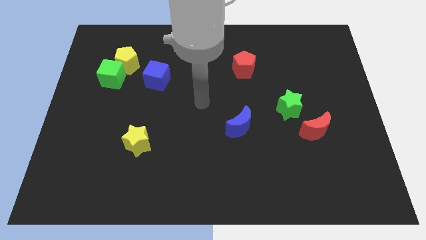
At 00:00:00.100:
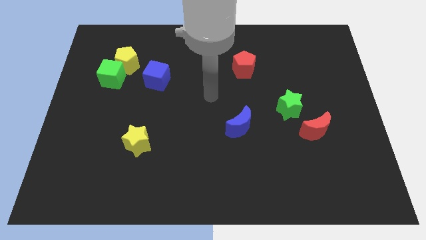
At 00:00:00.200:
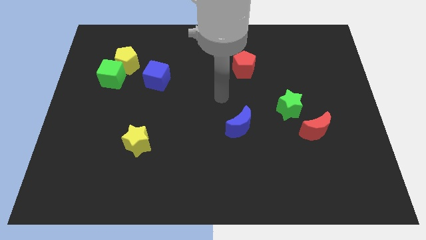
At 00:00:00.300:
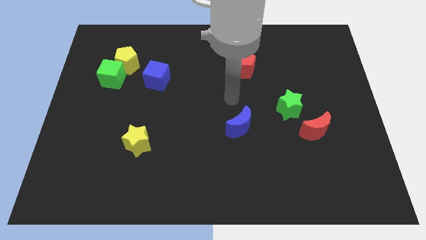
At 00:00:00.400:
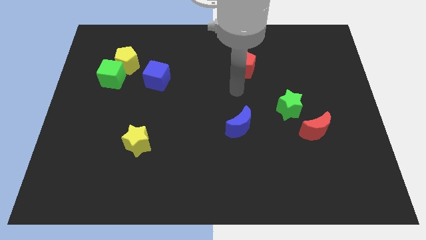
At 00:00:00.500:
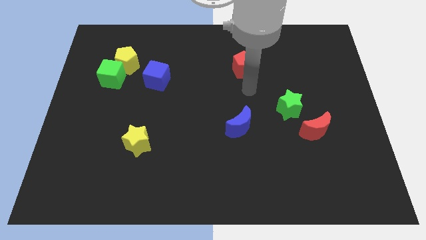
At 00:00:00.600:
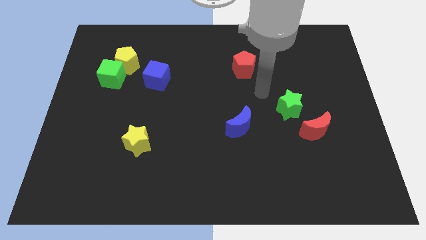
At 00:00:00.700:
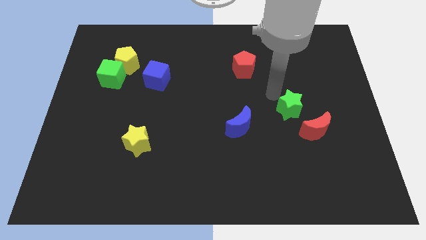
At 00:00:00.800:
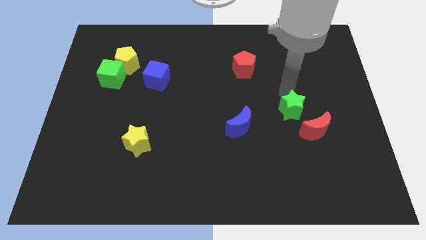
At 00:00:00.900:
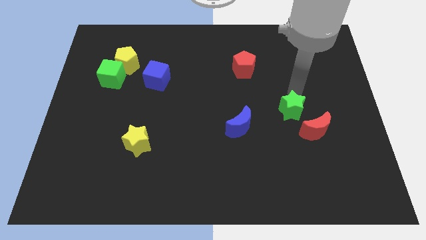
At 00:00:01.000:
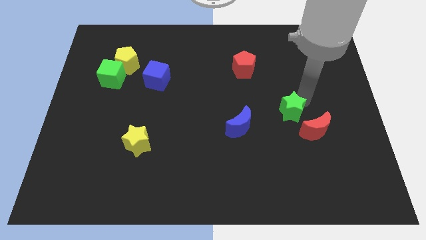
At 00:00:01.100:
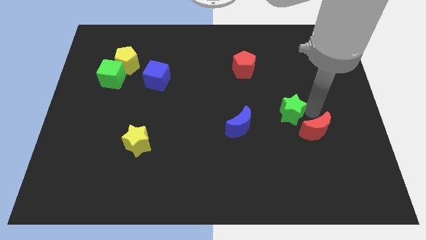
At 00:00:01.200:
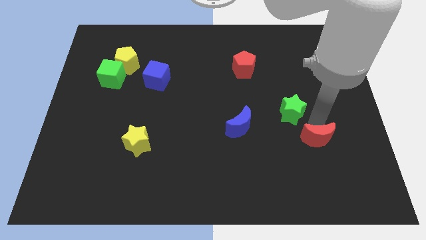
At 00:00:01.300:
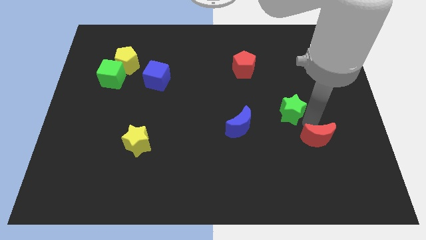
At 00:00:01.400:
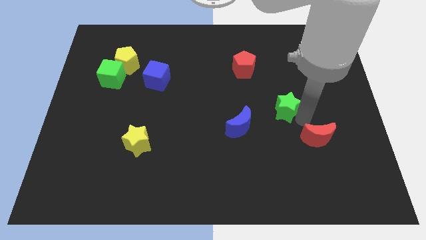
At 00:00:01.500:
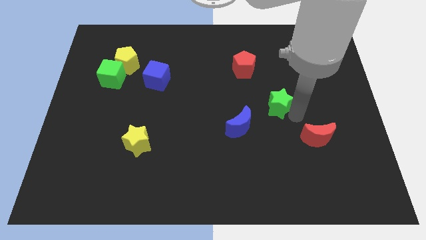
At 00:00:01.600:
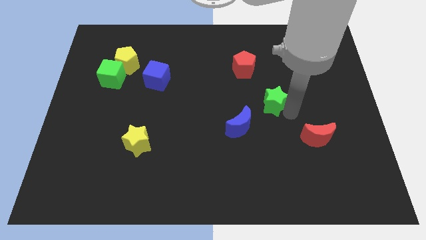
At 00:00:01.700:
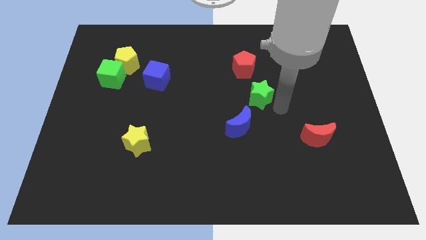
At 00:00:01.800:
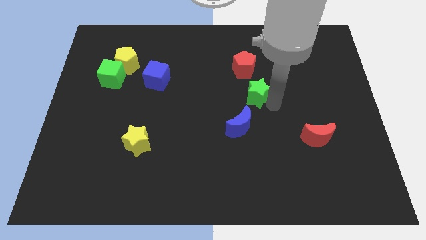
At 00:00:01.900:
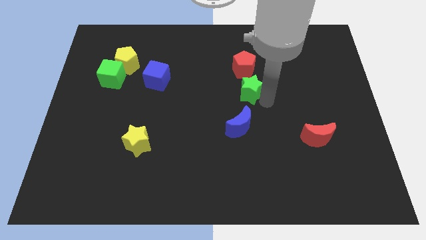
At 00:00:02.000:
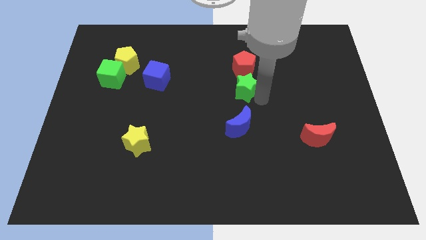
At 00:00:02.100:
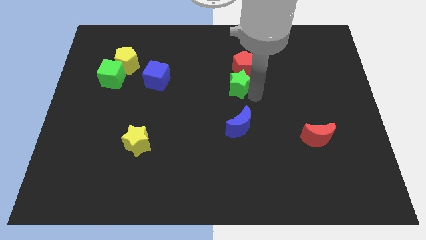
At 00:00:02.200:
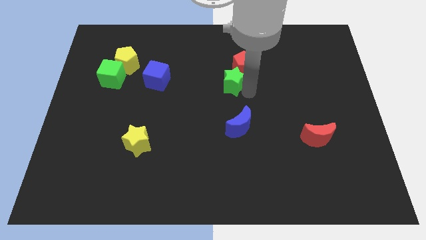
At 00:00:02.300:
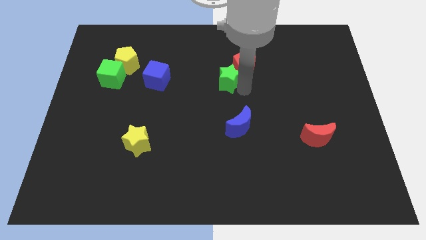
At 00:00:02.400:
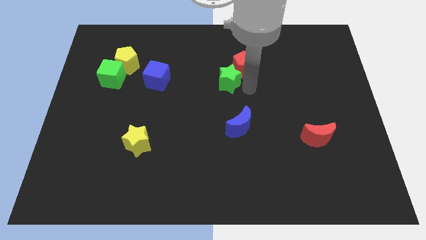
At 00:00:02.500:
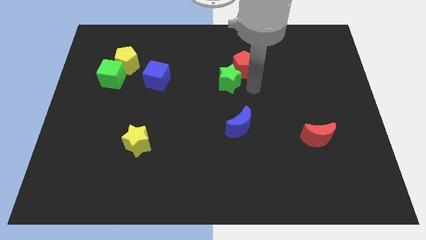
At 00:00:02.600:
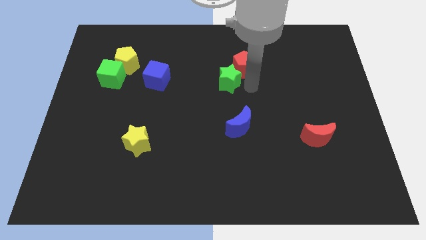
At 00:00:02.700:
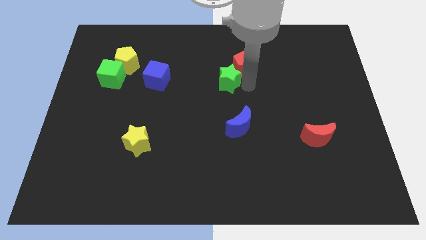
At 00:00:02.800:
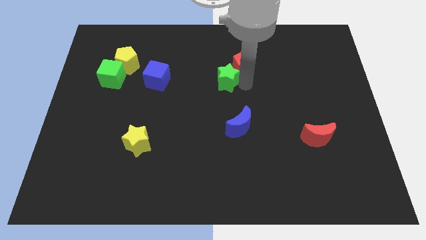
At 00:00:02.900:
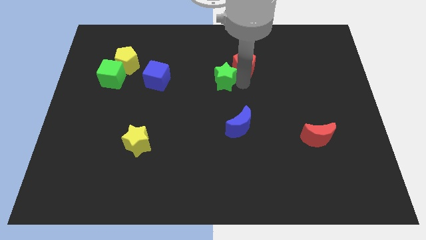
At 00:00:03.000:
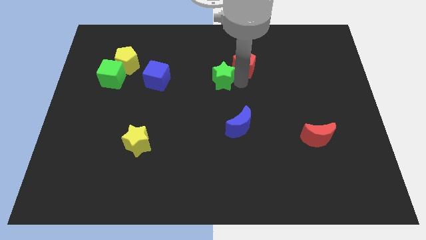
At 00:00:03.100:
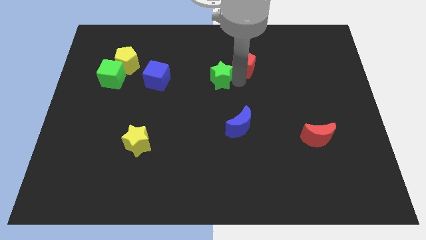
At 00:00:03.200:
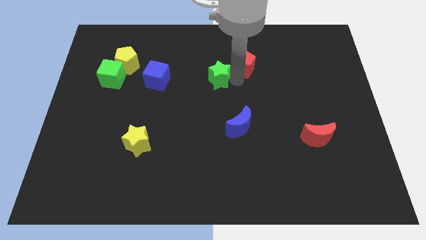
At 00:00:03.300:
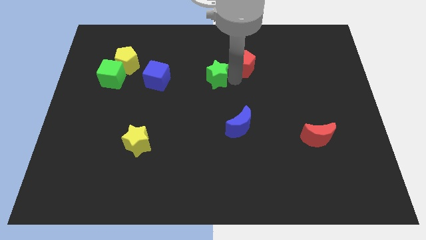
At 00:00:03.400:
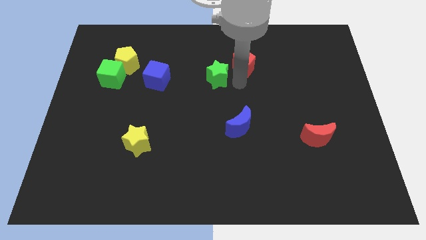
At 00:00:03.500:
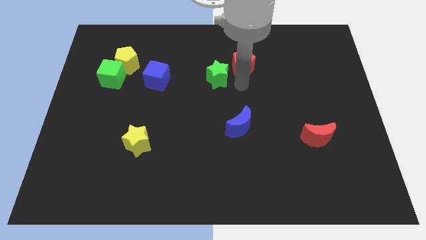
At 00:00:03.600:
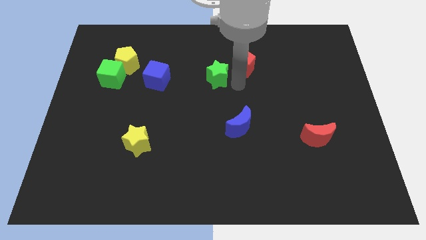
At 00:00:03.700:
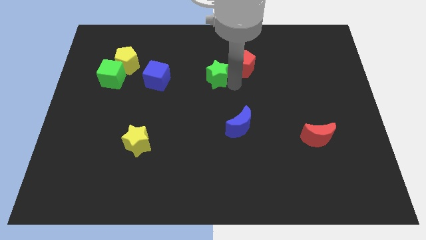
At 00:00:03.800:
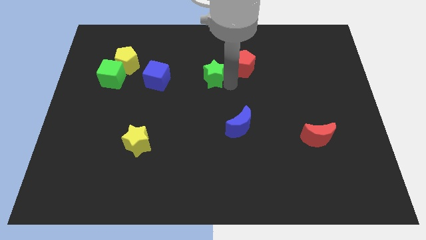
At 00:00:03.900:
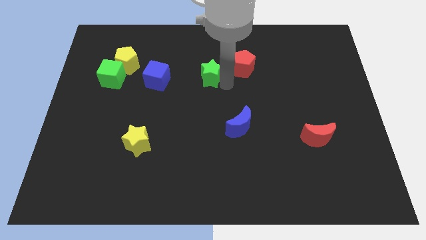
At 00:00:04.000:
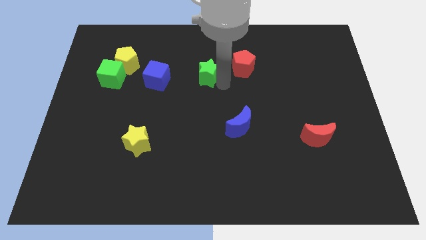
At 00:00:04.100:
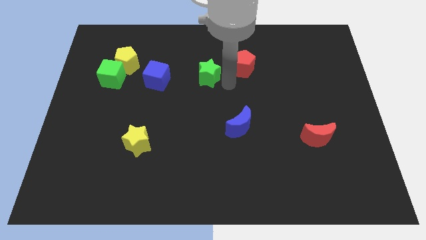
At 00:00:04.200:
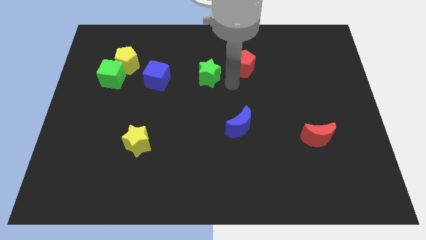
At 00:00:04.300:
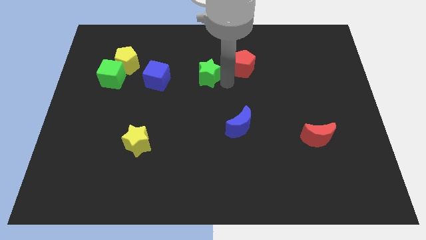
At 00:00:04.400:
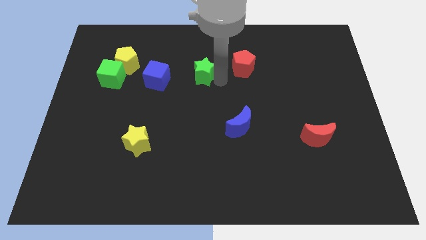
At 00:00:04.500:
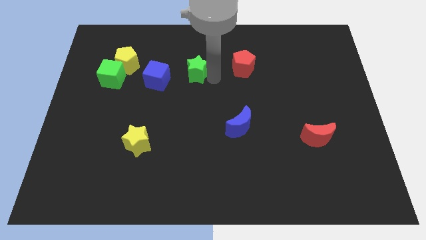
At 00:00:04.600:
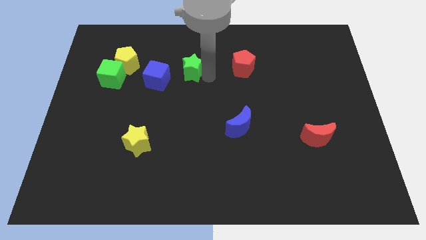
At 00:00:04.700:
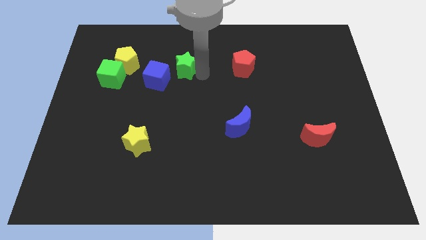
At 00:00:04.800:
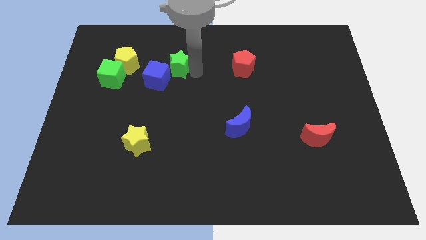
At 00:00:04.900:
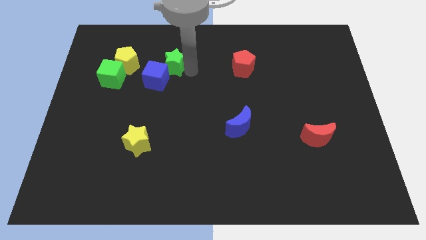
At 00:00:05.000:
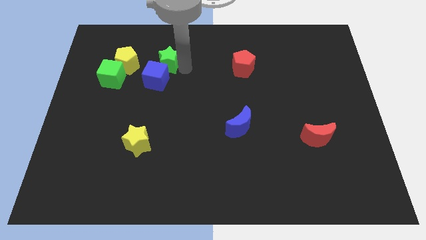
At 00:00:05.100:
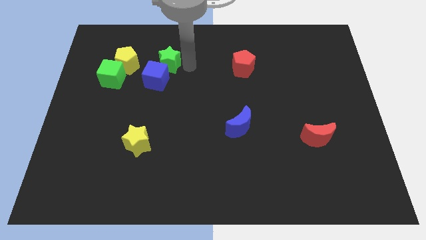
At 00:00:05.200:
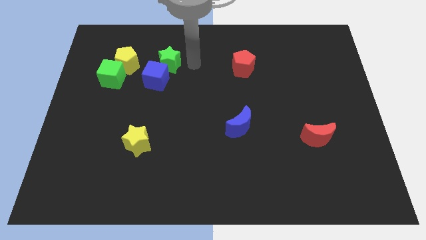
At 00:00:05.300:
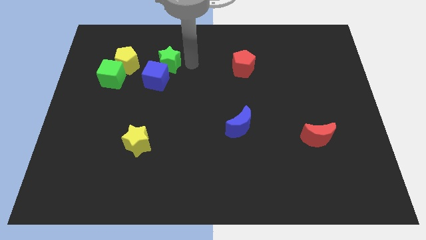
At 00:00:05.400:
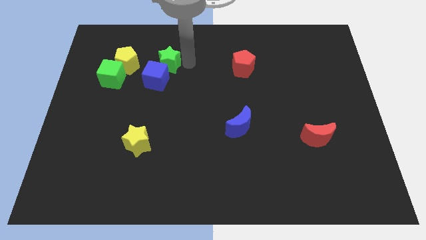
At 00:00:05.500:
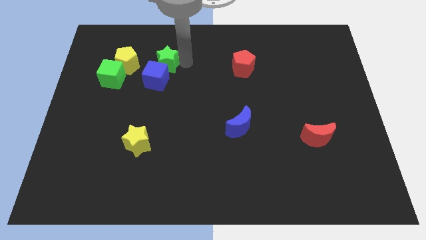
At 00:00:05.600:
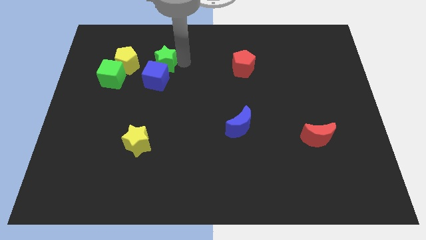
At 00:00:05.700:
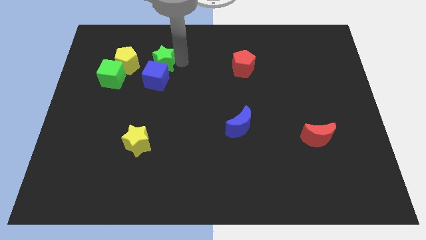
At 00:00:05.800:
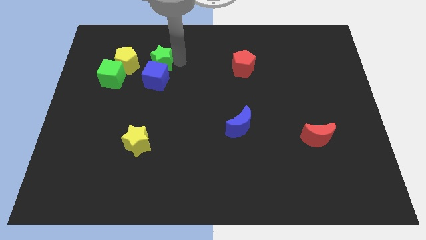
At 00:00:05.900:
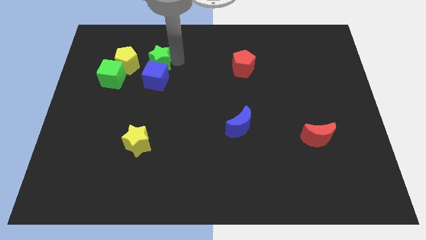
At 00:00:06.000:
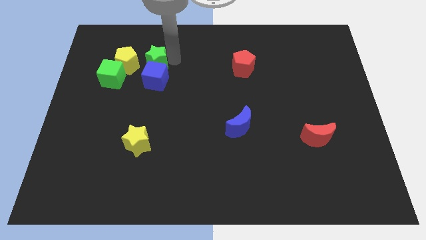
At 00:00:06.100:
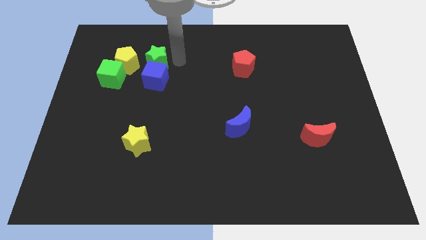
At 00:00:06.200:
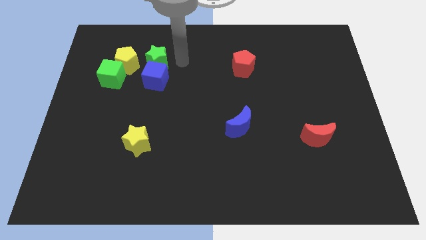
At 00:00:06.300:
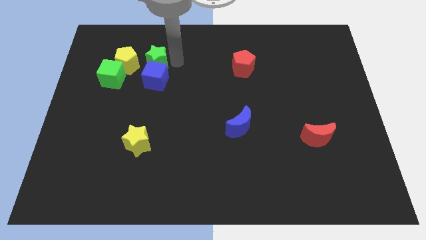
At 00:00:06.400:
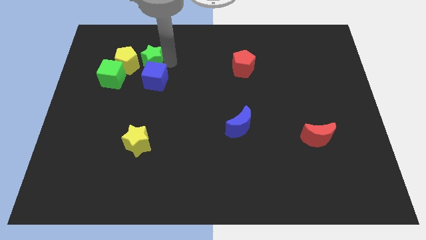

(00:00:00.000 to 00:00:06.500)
push the green star next to the yellow pentagon
